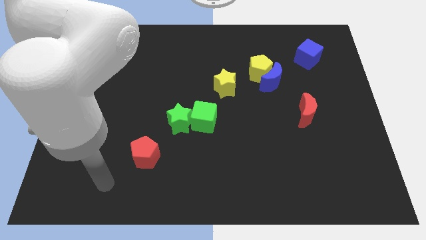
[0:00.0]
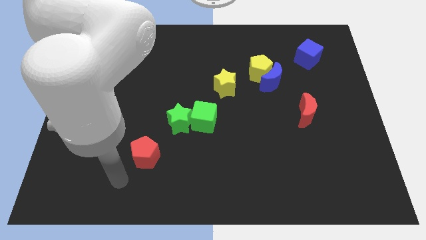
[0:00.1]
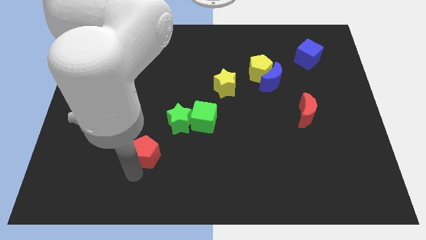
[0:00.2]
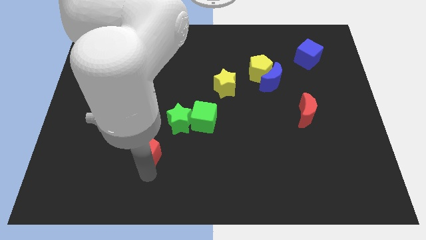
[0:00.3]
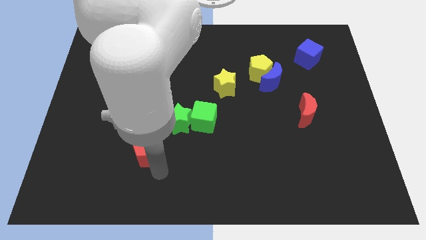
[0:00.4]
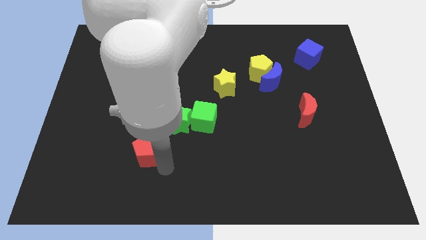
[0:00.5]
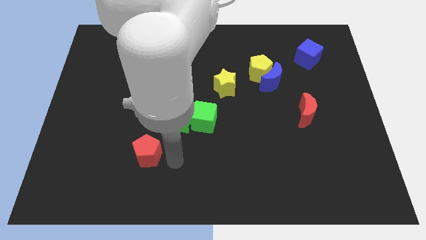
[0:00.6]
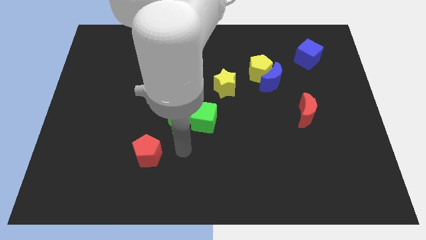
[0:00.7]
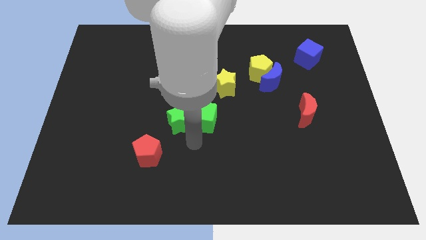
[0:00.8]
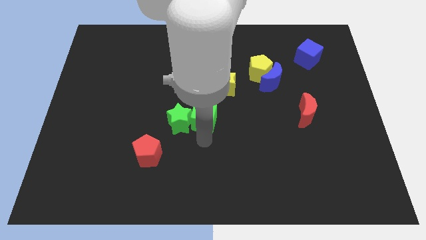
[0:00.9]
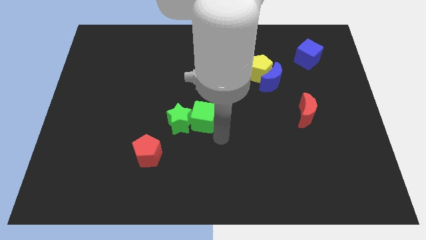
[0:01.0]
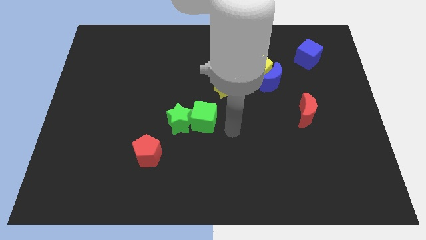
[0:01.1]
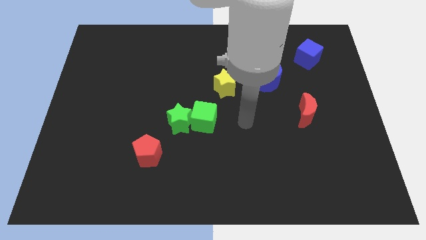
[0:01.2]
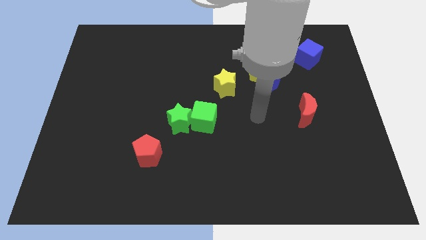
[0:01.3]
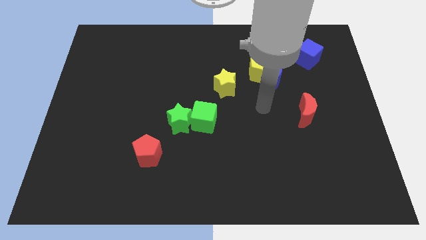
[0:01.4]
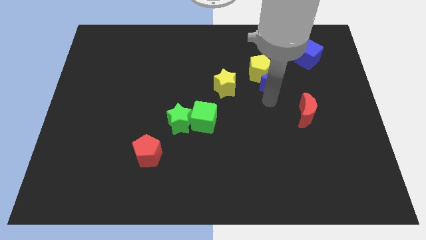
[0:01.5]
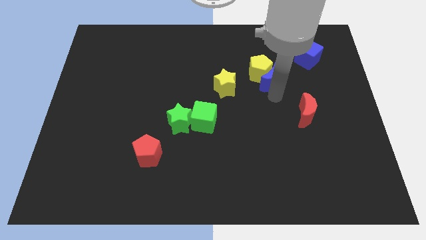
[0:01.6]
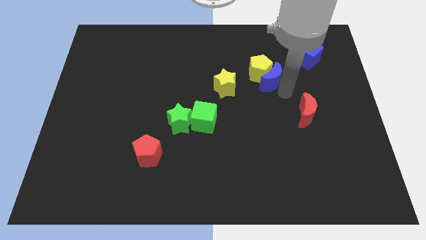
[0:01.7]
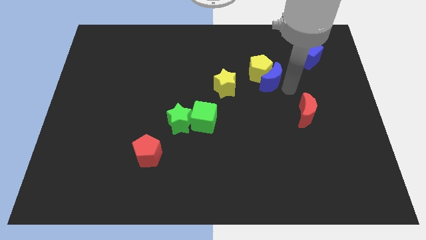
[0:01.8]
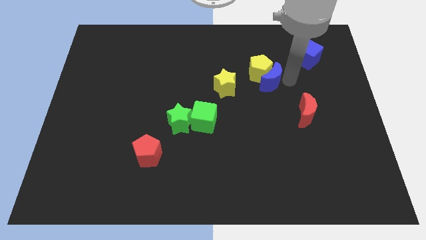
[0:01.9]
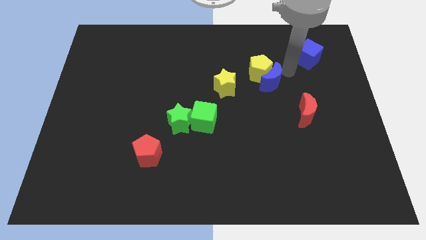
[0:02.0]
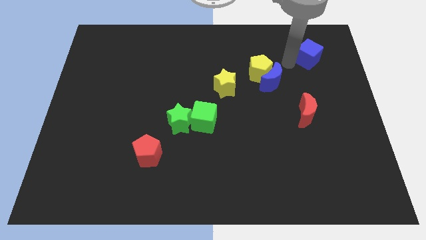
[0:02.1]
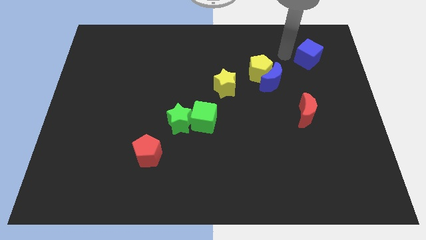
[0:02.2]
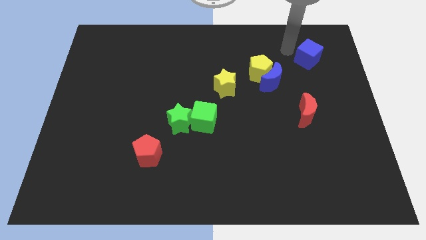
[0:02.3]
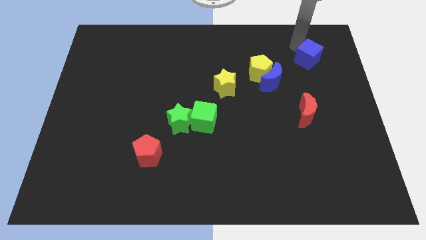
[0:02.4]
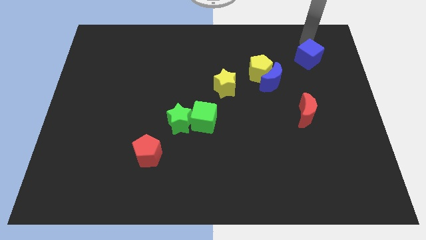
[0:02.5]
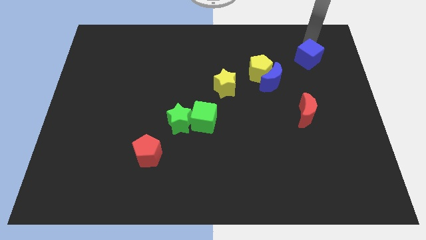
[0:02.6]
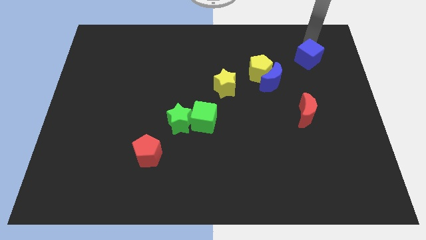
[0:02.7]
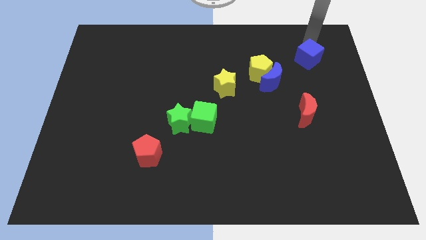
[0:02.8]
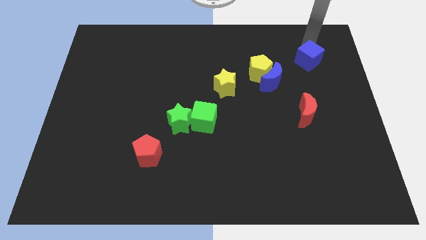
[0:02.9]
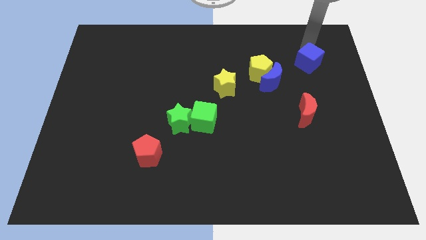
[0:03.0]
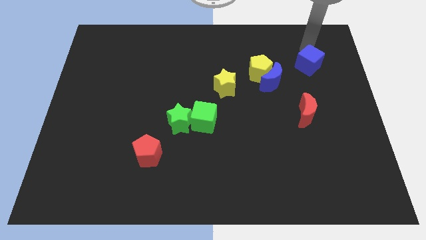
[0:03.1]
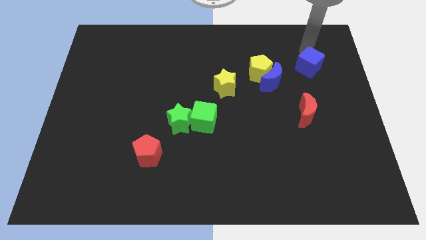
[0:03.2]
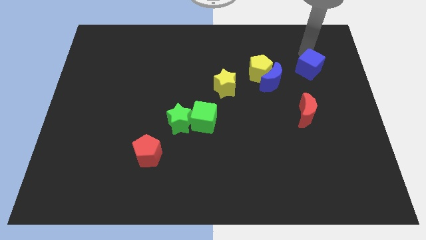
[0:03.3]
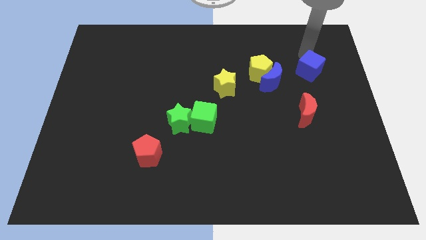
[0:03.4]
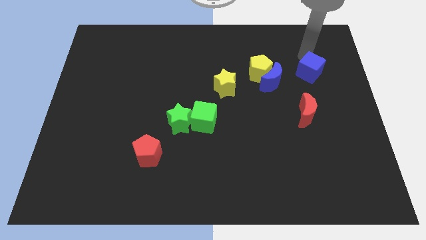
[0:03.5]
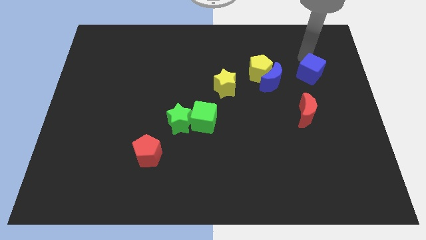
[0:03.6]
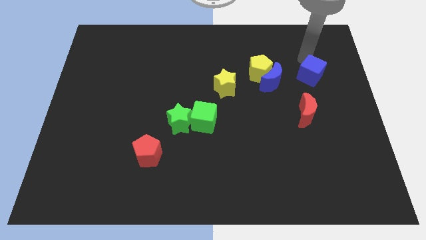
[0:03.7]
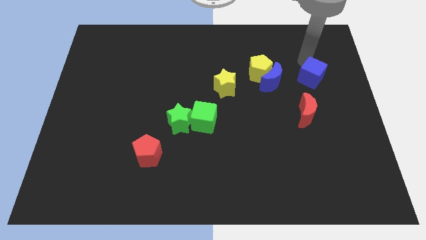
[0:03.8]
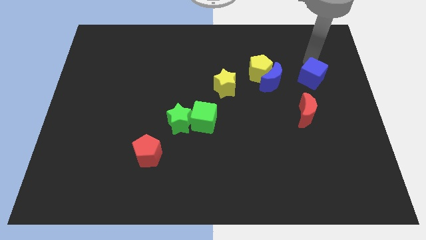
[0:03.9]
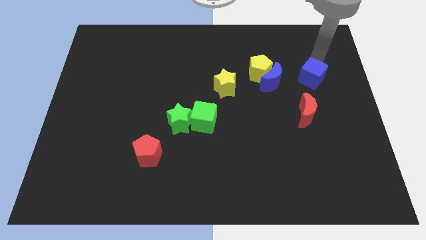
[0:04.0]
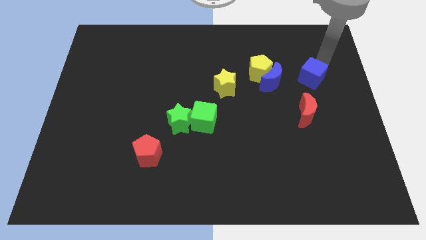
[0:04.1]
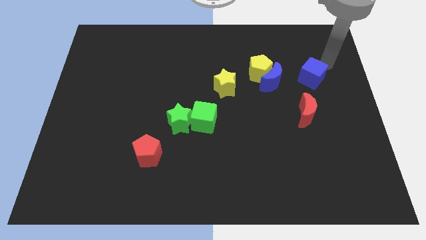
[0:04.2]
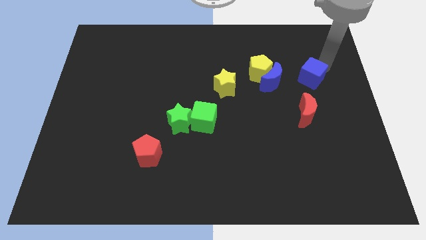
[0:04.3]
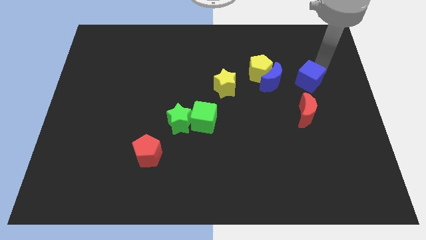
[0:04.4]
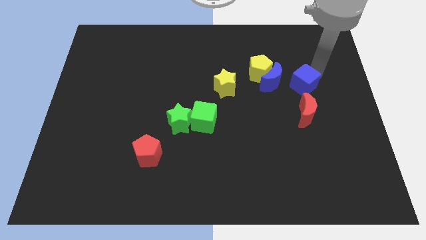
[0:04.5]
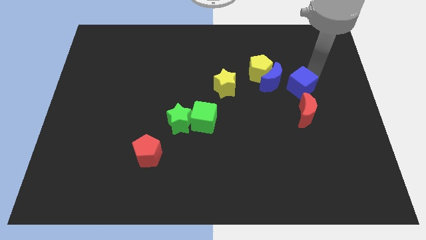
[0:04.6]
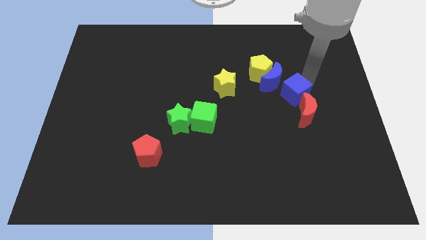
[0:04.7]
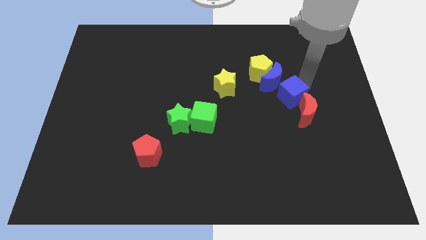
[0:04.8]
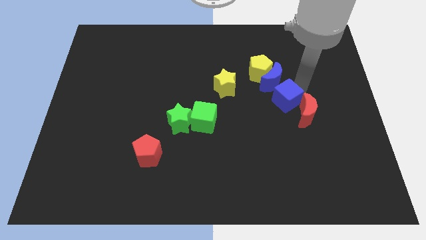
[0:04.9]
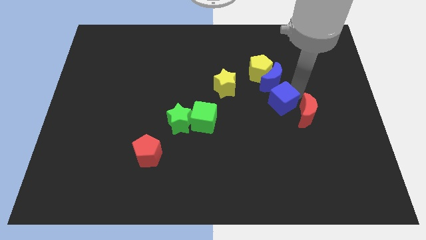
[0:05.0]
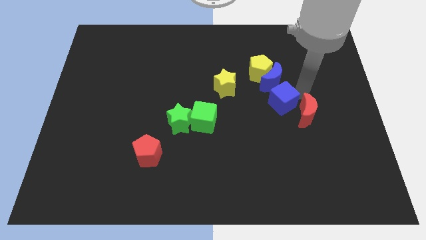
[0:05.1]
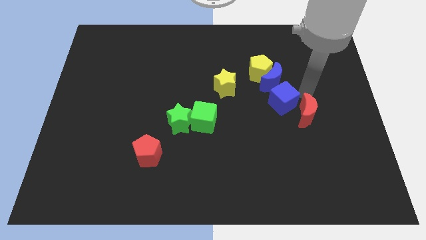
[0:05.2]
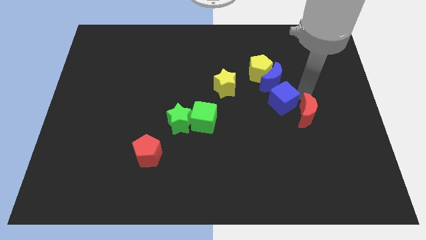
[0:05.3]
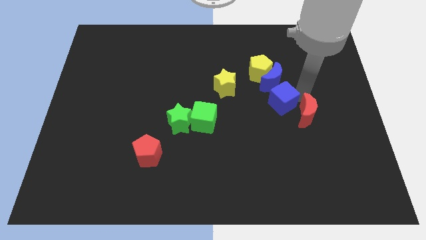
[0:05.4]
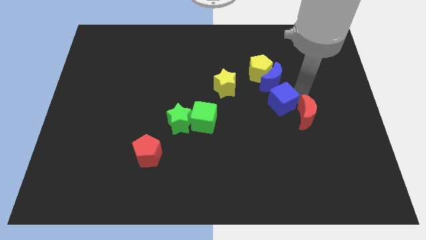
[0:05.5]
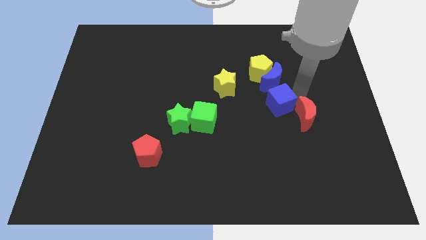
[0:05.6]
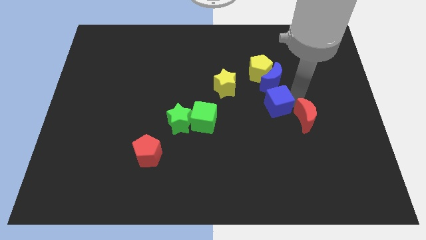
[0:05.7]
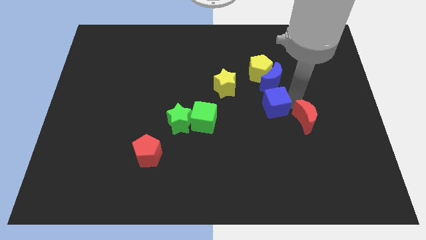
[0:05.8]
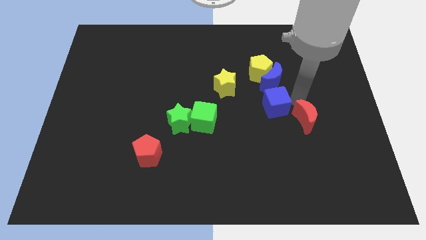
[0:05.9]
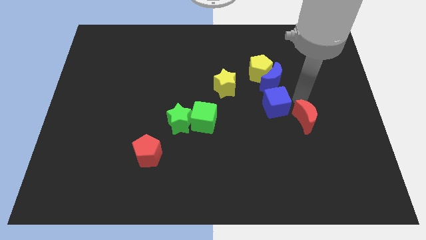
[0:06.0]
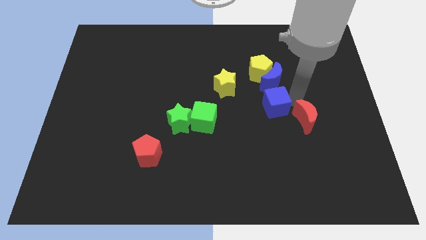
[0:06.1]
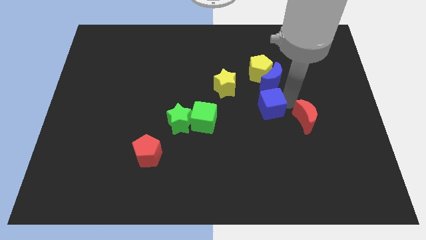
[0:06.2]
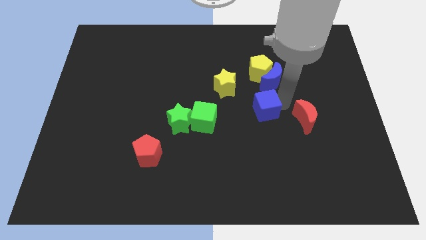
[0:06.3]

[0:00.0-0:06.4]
move the blue cube diagonally downwards and left

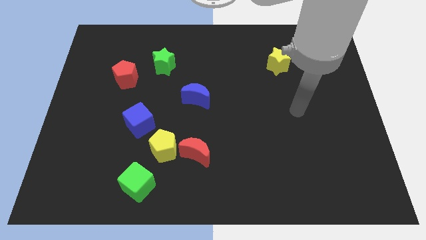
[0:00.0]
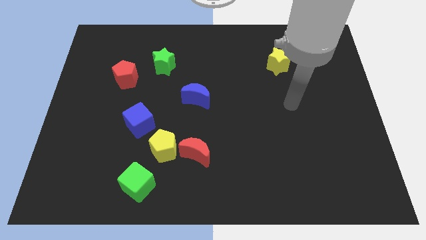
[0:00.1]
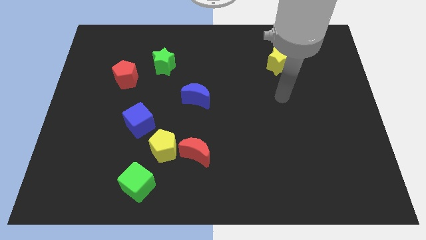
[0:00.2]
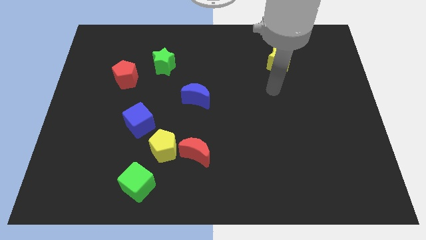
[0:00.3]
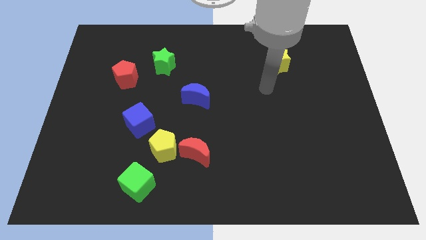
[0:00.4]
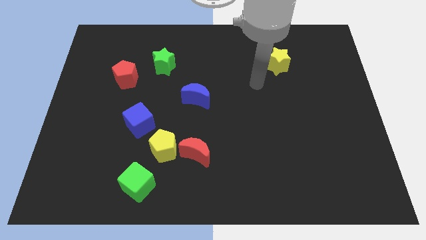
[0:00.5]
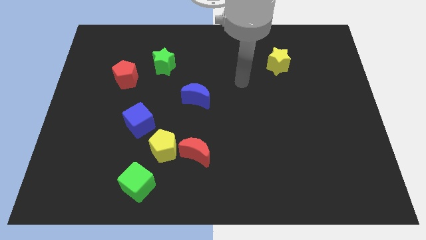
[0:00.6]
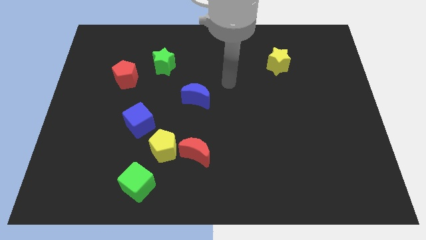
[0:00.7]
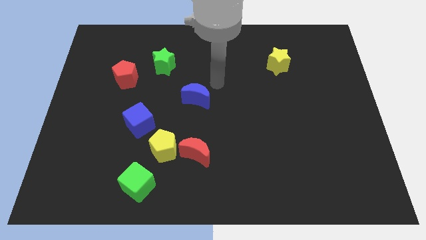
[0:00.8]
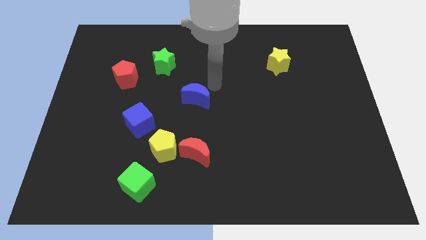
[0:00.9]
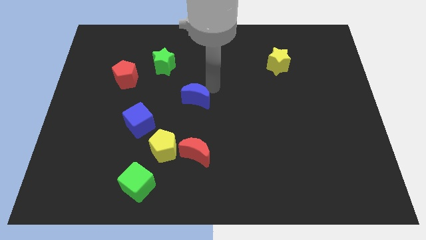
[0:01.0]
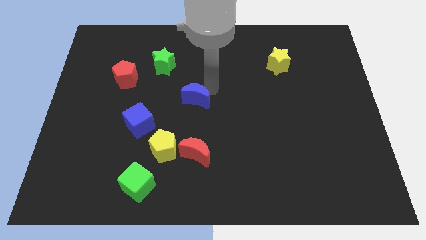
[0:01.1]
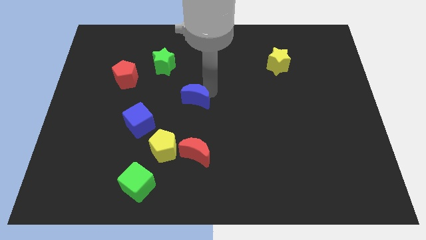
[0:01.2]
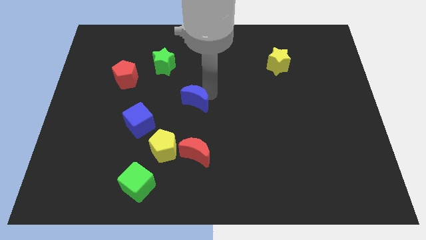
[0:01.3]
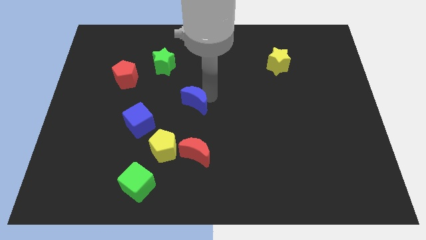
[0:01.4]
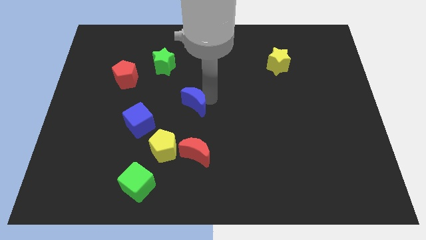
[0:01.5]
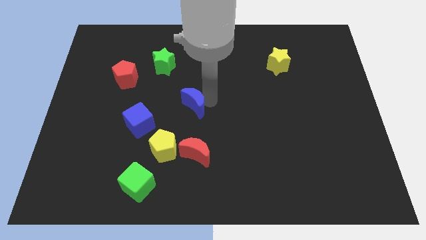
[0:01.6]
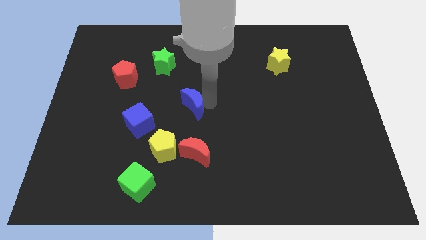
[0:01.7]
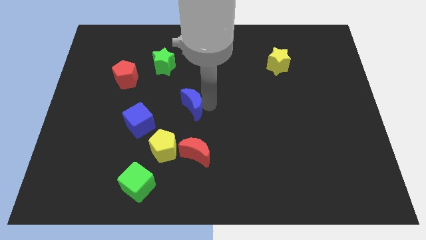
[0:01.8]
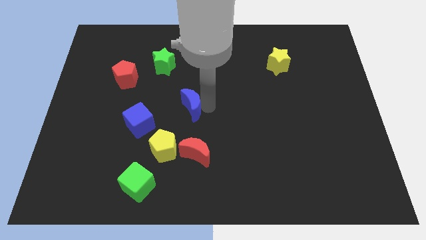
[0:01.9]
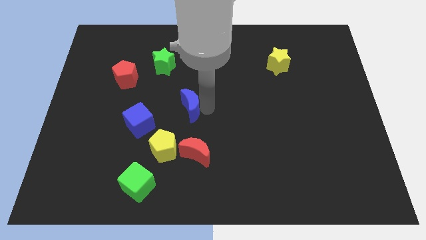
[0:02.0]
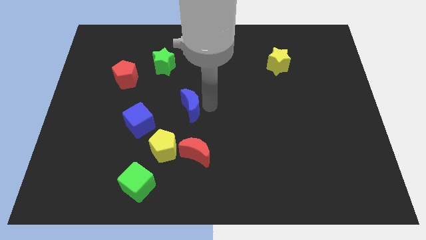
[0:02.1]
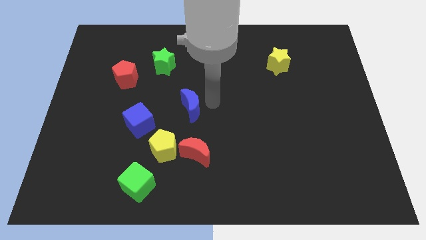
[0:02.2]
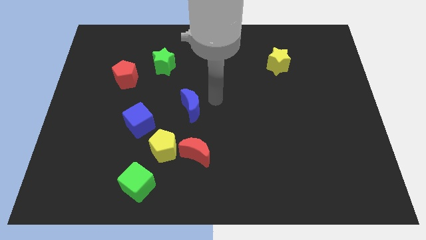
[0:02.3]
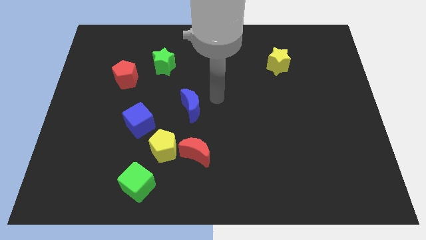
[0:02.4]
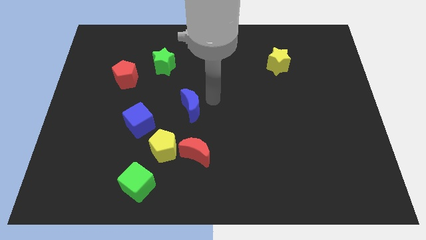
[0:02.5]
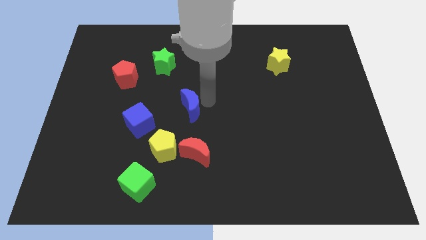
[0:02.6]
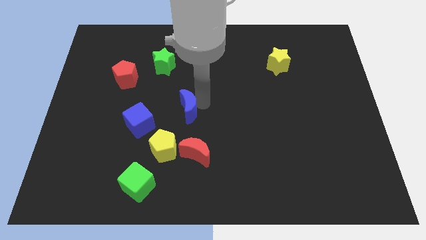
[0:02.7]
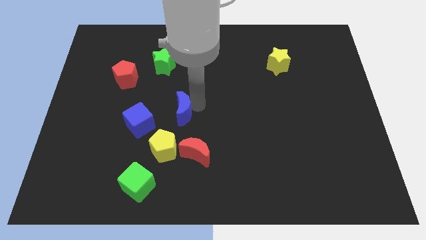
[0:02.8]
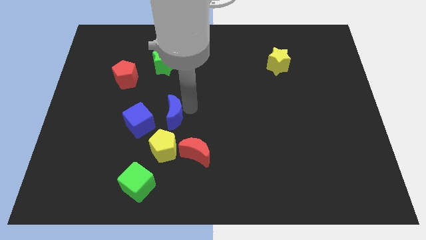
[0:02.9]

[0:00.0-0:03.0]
push the blue moon a bit downwards and left
